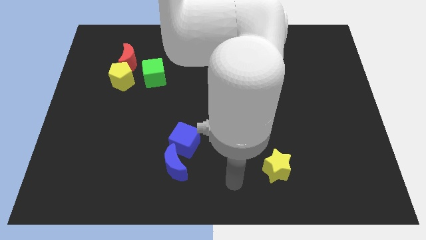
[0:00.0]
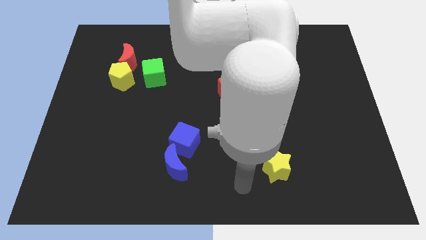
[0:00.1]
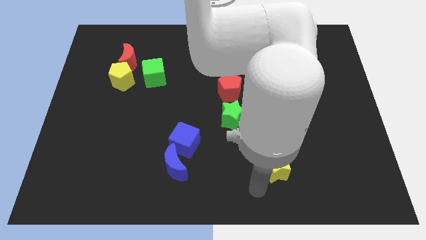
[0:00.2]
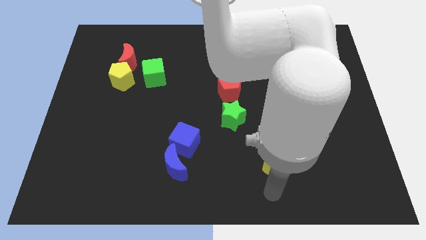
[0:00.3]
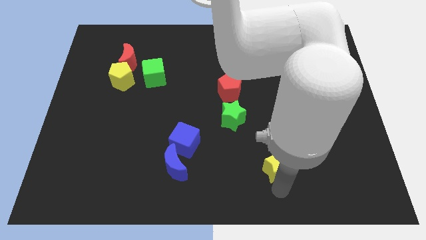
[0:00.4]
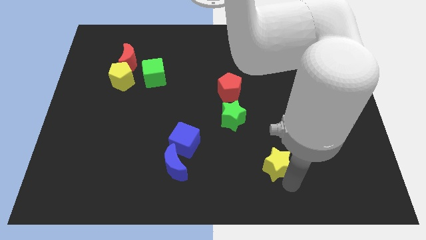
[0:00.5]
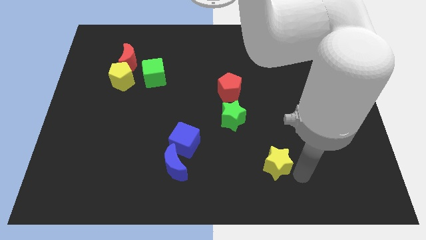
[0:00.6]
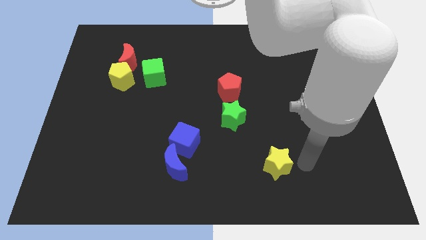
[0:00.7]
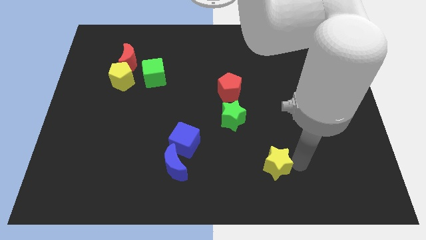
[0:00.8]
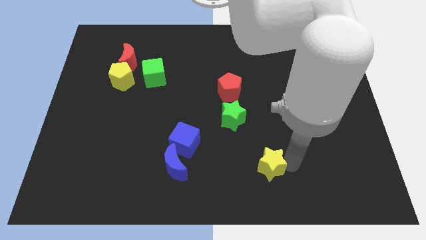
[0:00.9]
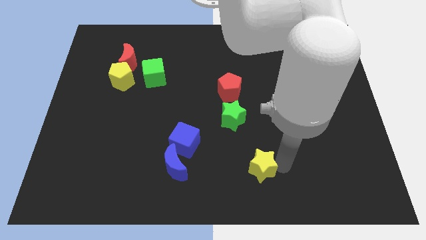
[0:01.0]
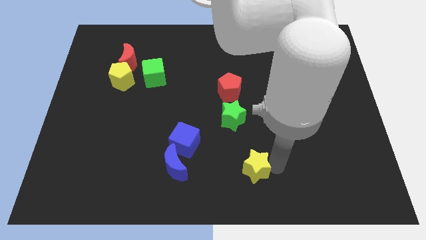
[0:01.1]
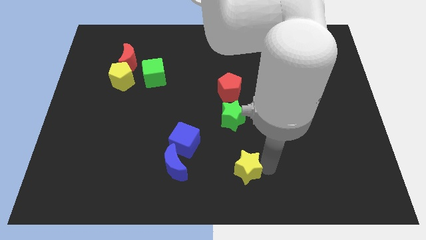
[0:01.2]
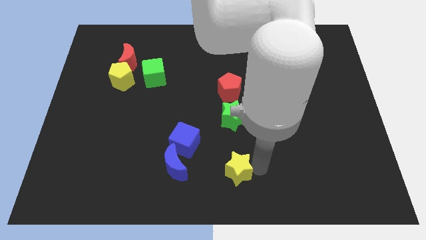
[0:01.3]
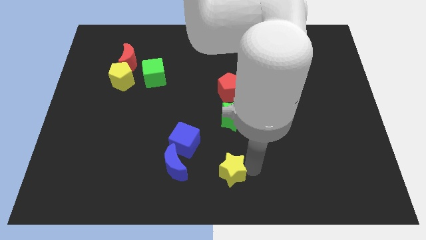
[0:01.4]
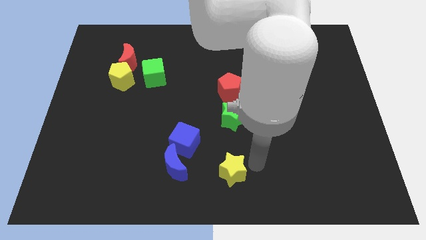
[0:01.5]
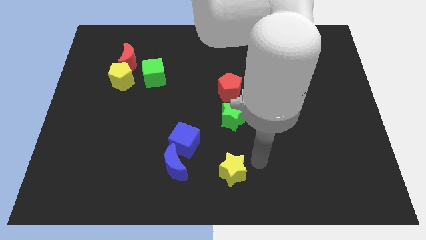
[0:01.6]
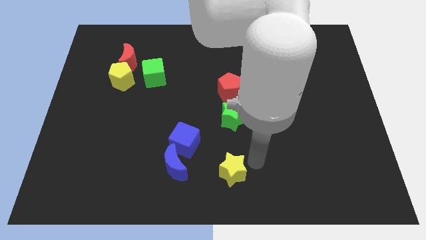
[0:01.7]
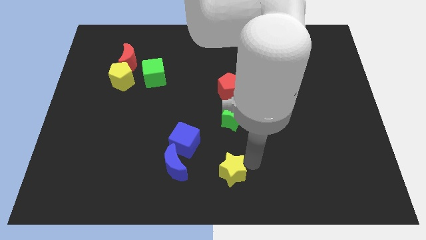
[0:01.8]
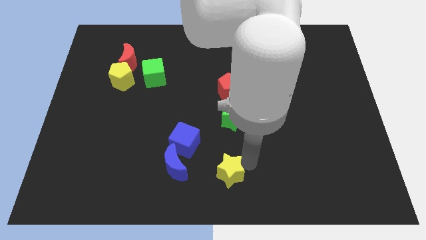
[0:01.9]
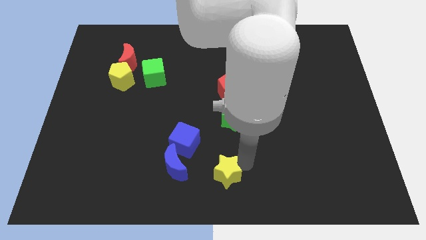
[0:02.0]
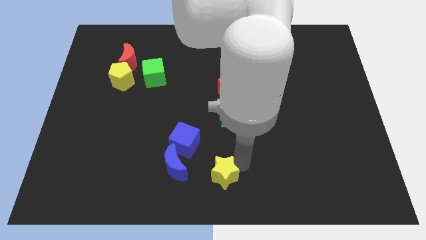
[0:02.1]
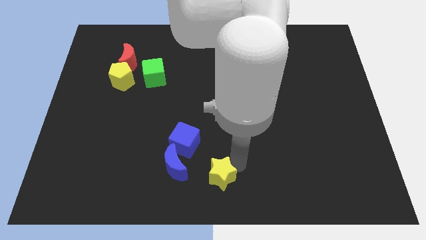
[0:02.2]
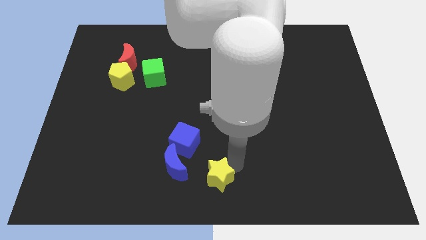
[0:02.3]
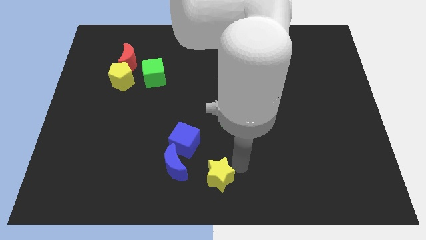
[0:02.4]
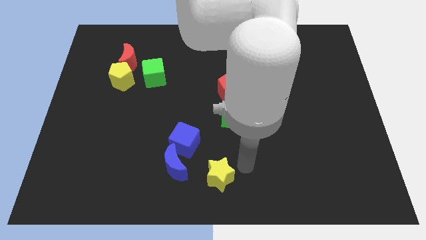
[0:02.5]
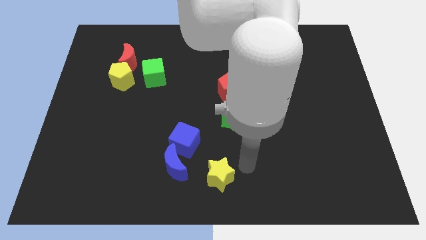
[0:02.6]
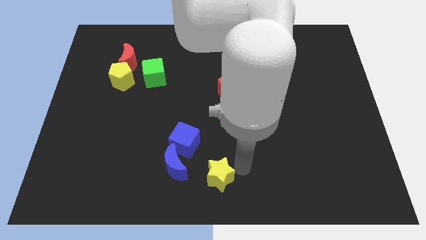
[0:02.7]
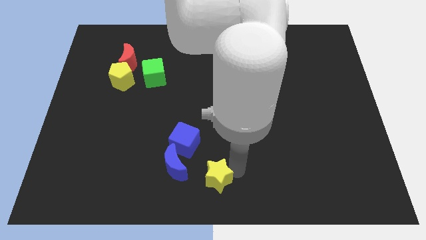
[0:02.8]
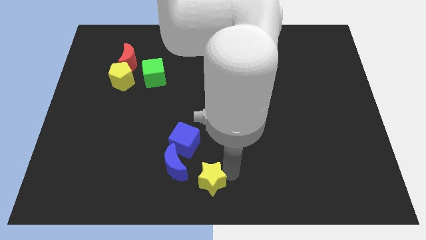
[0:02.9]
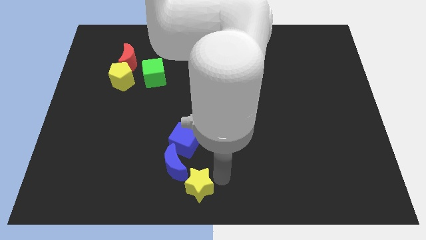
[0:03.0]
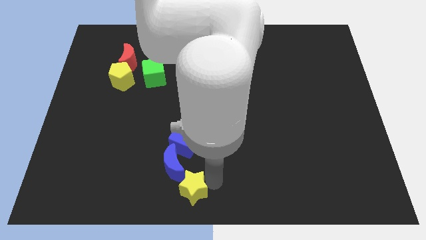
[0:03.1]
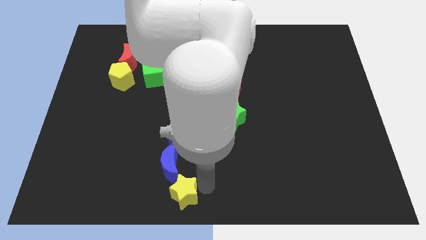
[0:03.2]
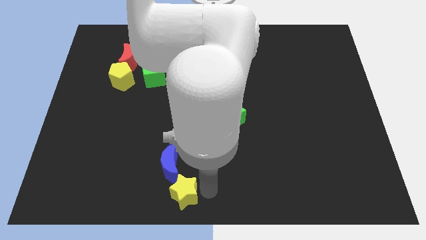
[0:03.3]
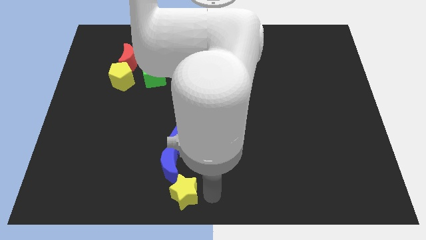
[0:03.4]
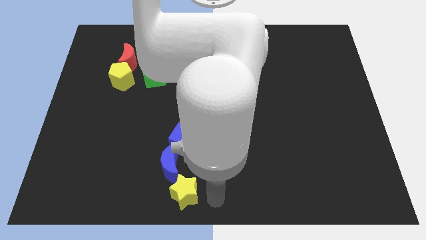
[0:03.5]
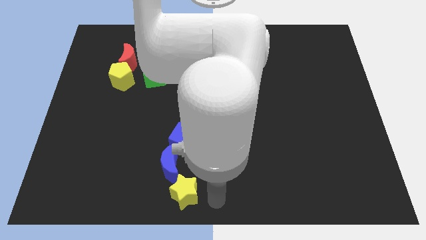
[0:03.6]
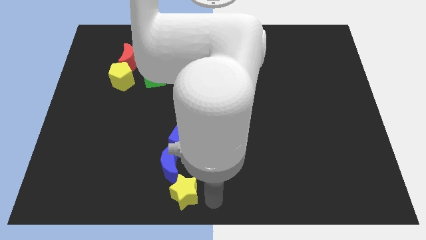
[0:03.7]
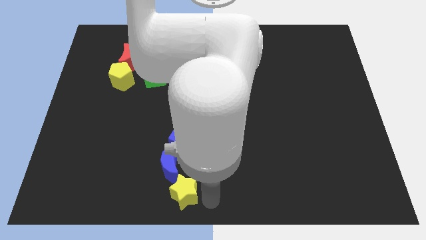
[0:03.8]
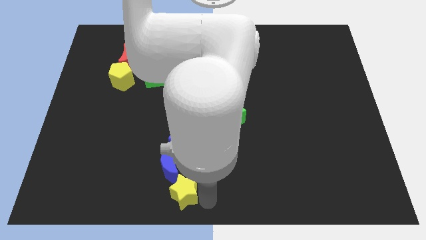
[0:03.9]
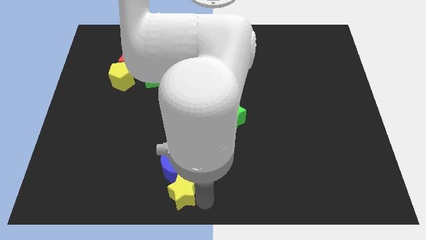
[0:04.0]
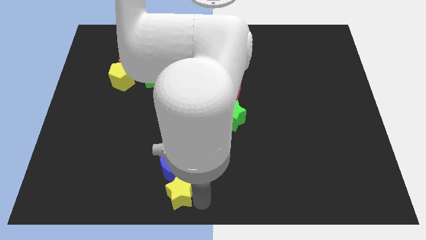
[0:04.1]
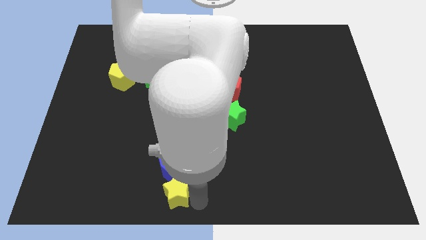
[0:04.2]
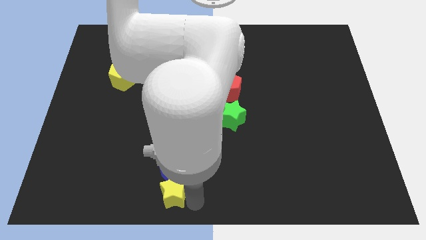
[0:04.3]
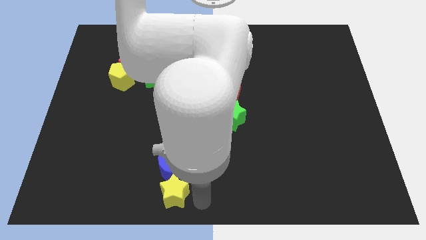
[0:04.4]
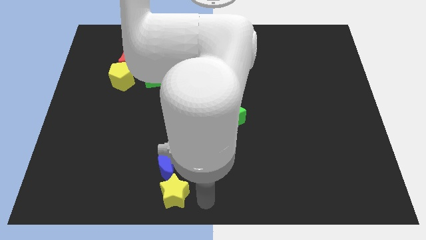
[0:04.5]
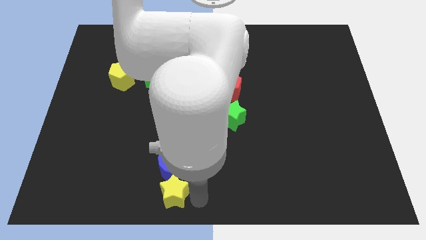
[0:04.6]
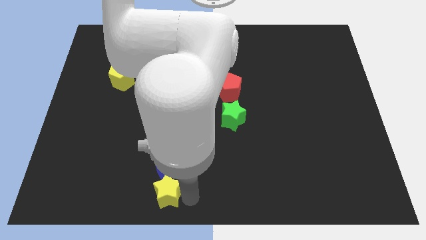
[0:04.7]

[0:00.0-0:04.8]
push the yellow star left

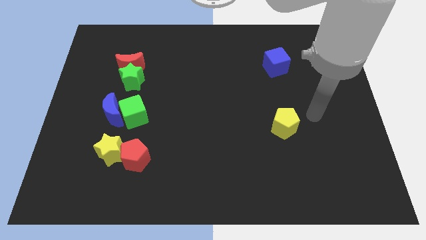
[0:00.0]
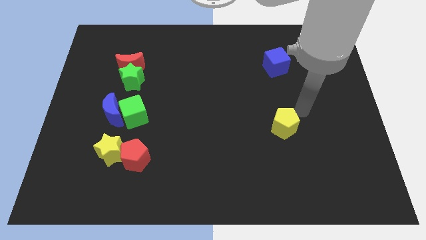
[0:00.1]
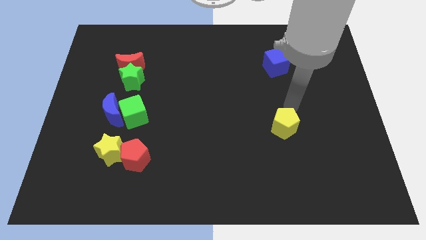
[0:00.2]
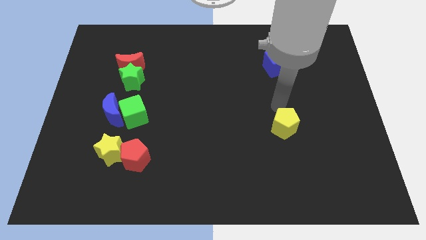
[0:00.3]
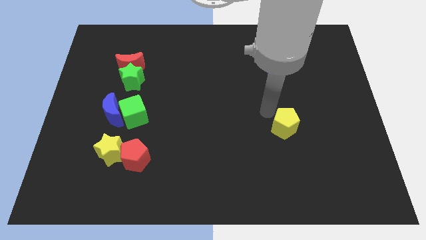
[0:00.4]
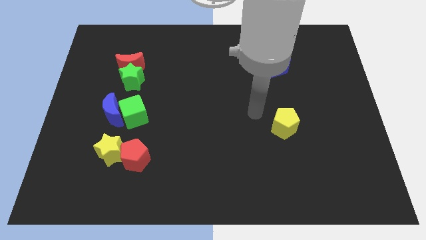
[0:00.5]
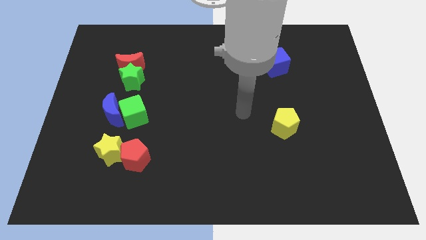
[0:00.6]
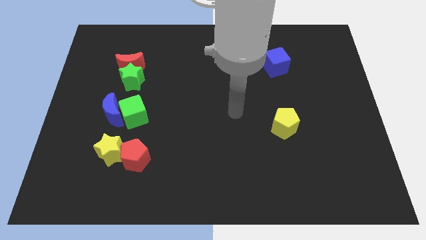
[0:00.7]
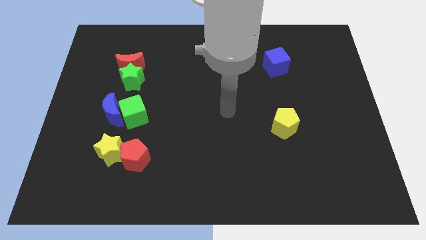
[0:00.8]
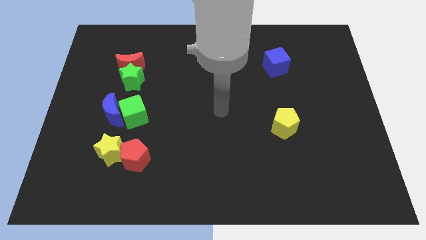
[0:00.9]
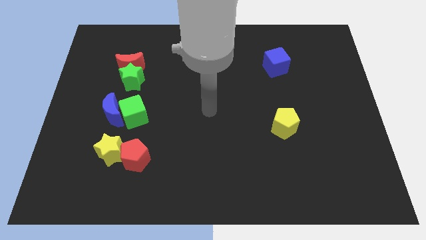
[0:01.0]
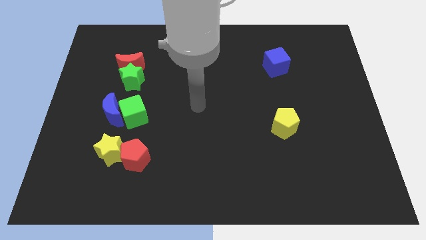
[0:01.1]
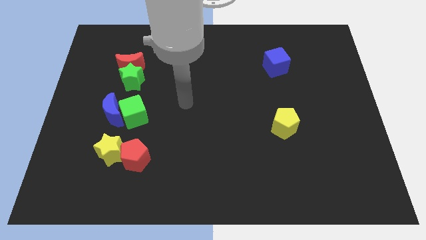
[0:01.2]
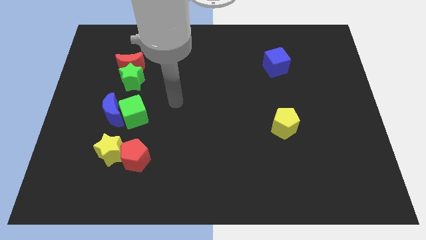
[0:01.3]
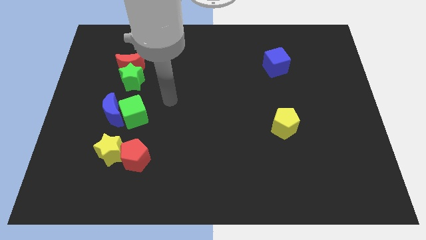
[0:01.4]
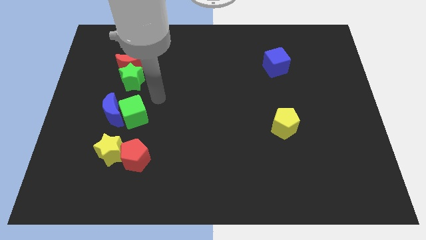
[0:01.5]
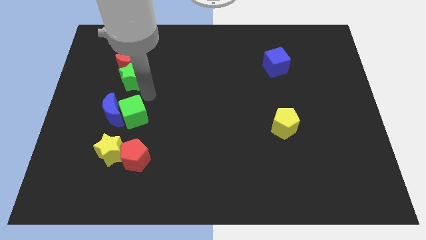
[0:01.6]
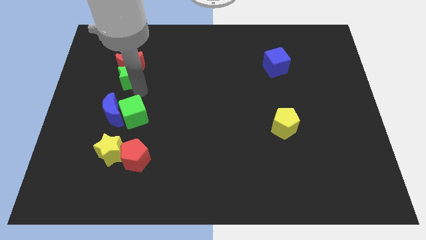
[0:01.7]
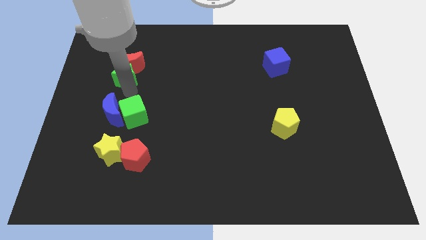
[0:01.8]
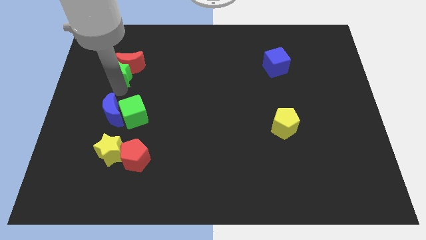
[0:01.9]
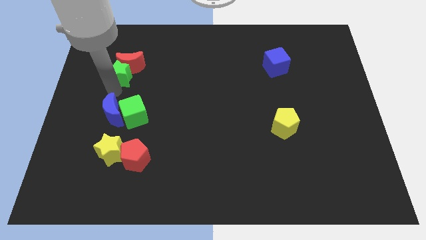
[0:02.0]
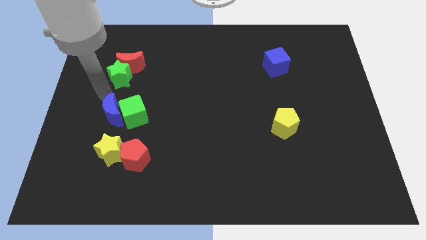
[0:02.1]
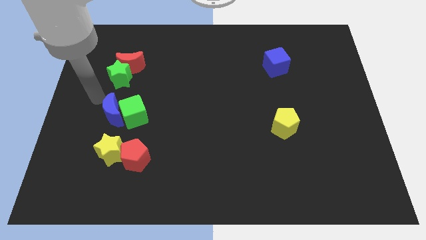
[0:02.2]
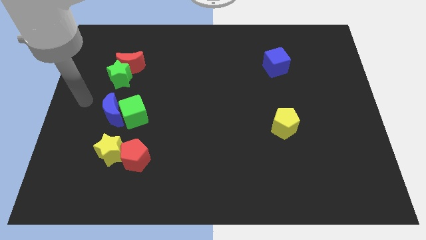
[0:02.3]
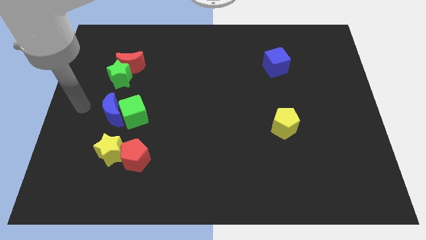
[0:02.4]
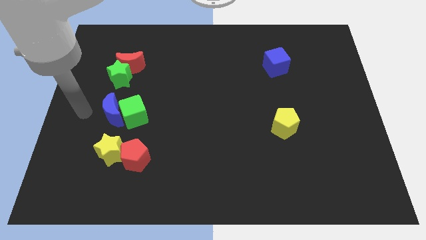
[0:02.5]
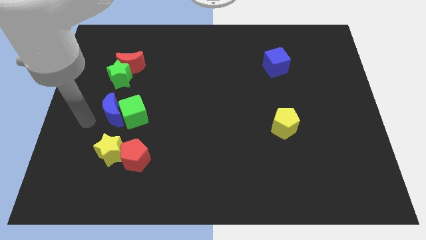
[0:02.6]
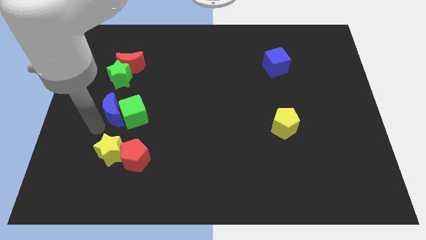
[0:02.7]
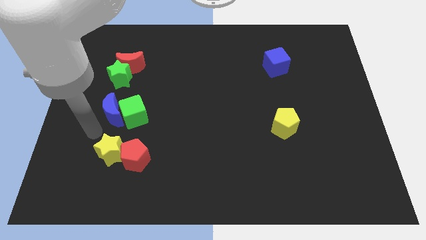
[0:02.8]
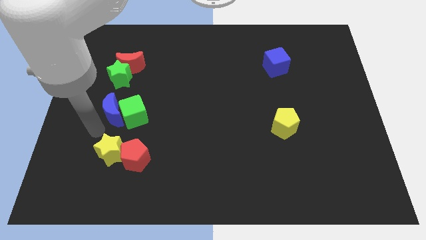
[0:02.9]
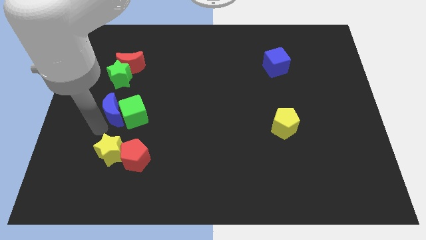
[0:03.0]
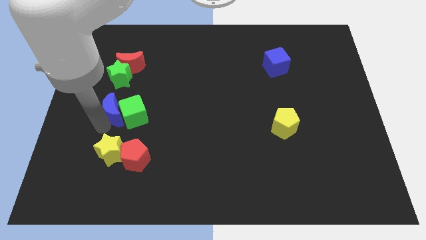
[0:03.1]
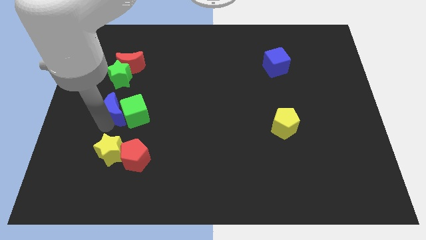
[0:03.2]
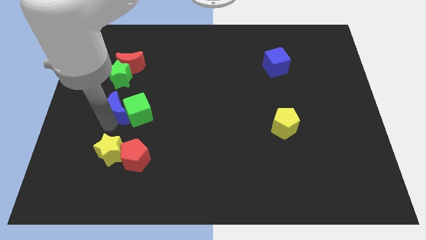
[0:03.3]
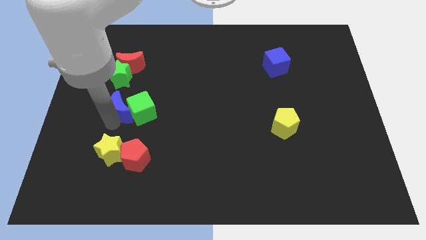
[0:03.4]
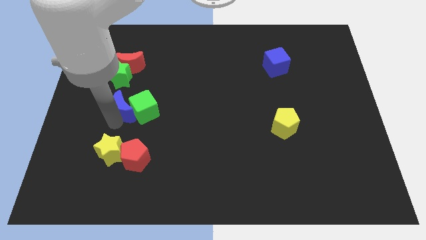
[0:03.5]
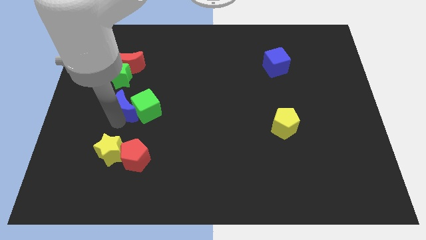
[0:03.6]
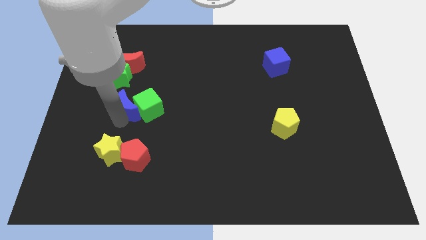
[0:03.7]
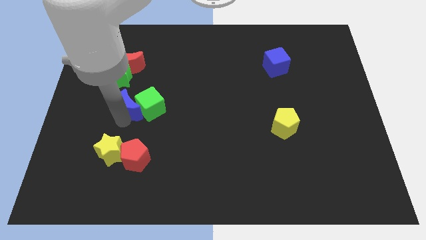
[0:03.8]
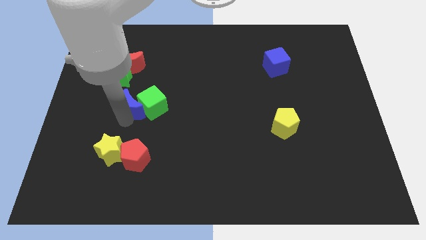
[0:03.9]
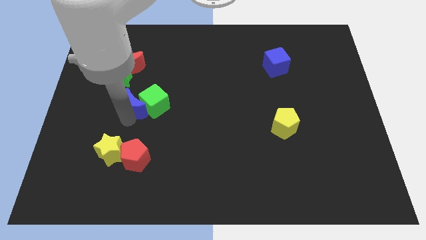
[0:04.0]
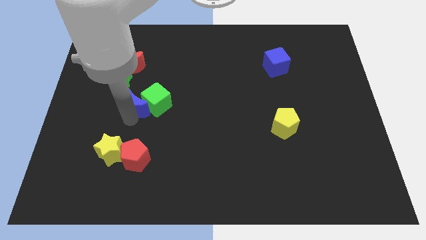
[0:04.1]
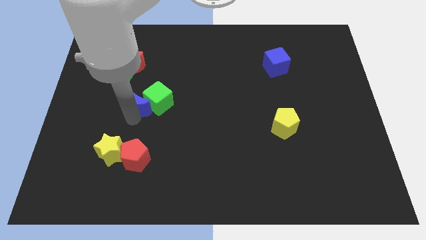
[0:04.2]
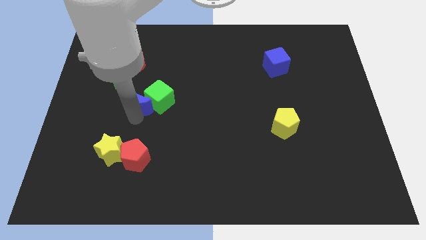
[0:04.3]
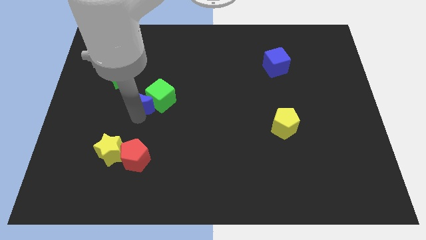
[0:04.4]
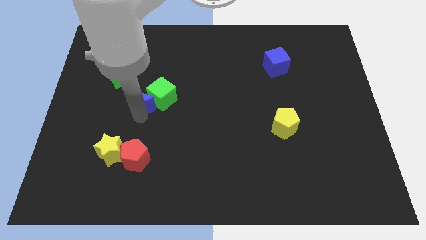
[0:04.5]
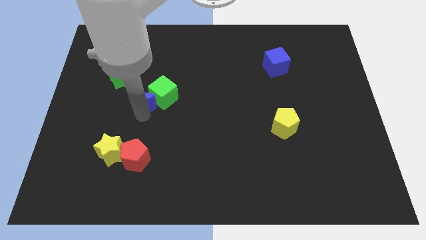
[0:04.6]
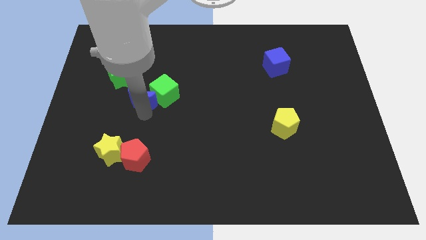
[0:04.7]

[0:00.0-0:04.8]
slightly push the blue moon up and right
